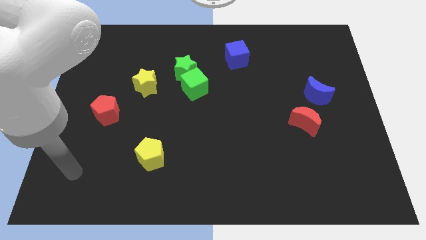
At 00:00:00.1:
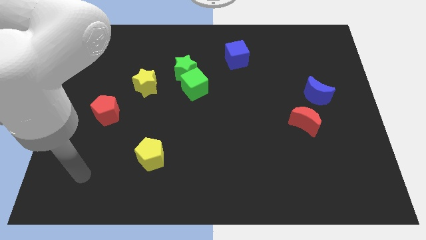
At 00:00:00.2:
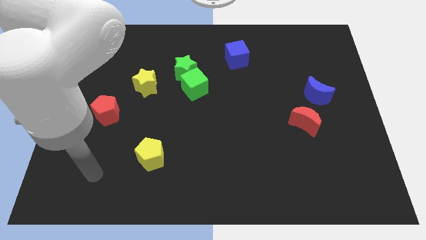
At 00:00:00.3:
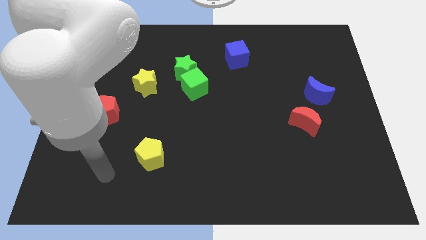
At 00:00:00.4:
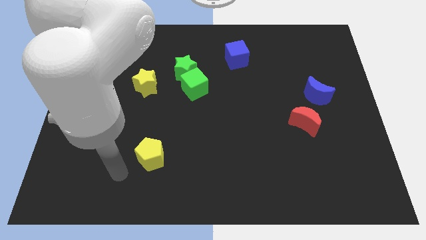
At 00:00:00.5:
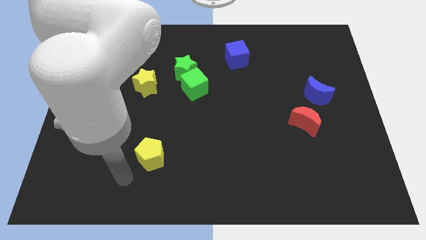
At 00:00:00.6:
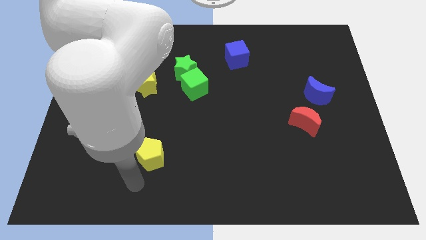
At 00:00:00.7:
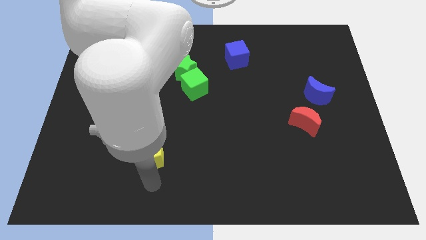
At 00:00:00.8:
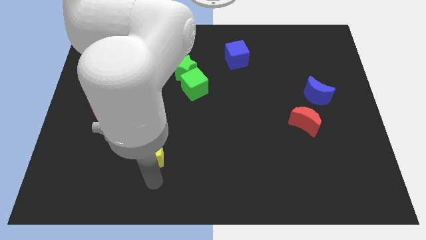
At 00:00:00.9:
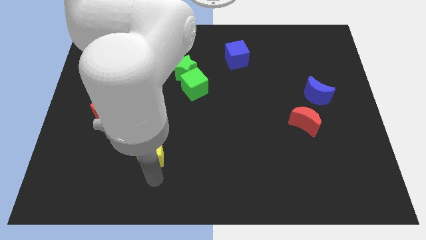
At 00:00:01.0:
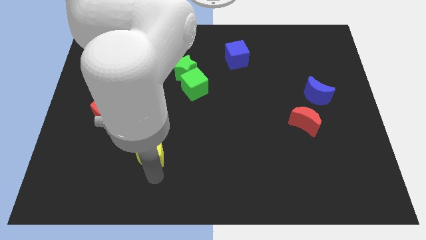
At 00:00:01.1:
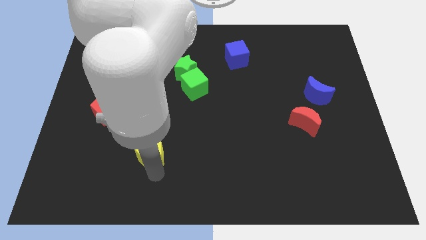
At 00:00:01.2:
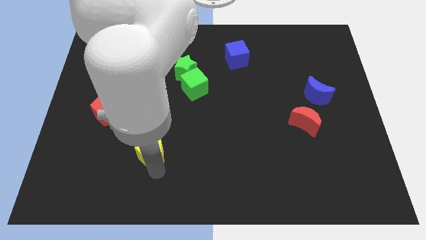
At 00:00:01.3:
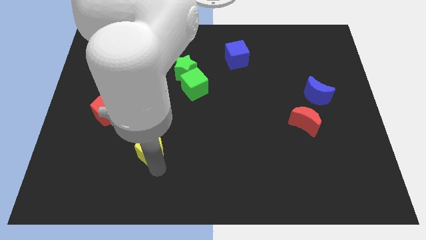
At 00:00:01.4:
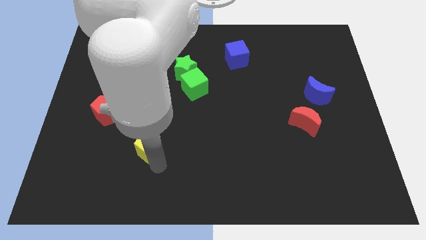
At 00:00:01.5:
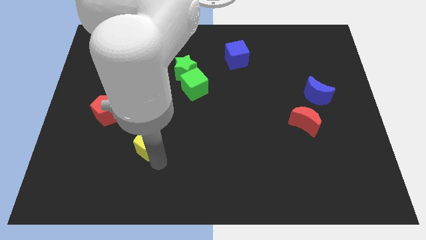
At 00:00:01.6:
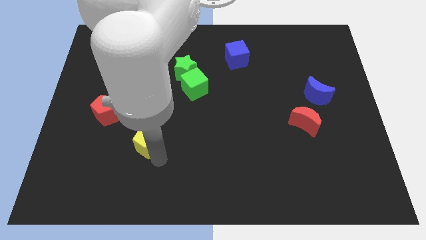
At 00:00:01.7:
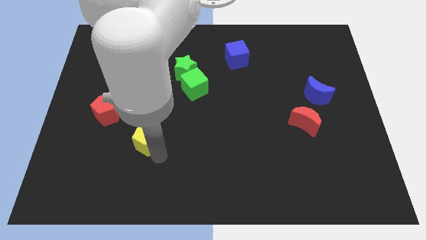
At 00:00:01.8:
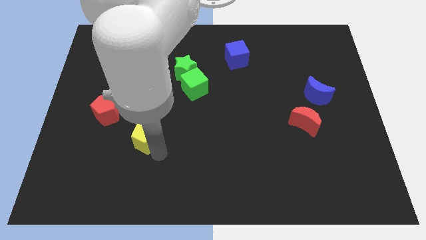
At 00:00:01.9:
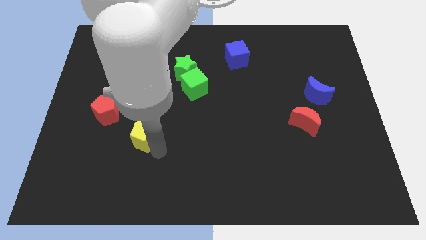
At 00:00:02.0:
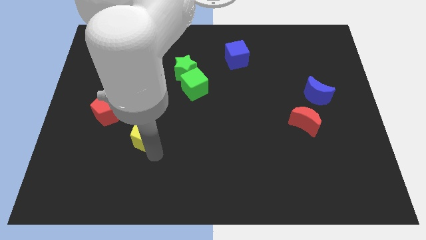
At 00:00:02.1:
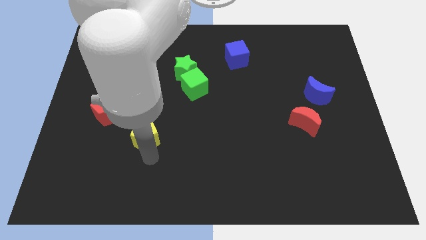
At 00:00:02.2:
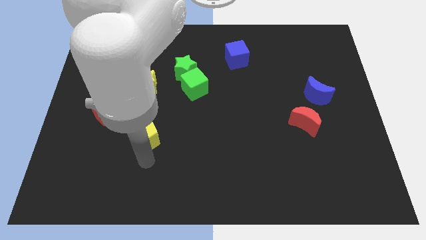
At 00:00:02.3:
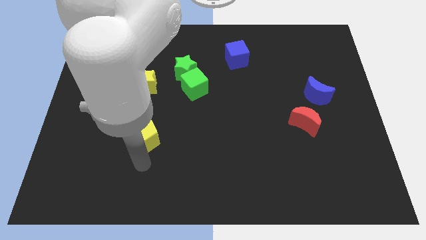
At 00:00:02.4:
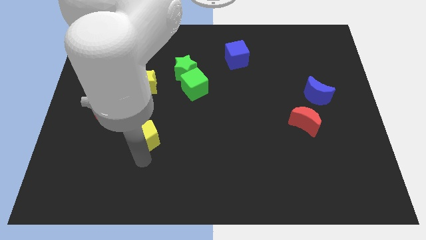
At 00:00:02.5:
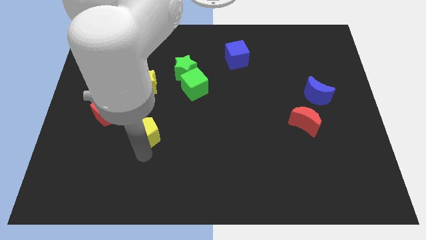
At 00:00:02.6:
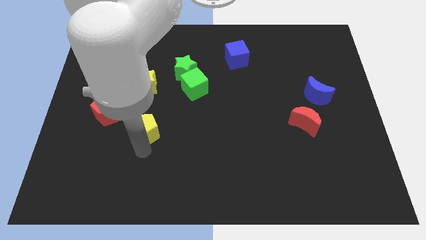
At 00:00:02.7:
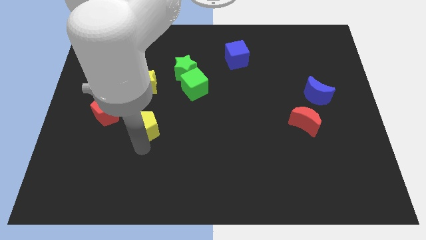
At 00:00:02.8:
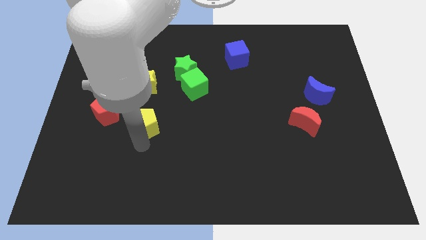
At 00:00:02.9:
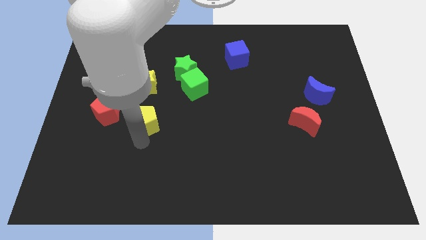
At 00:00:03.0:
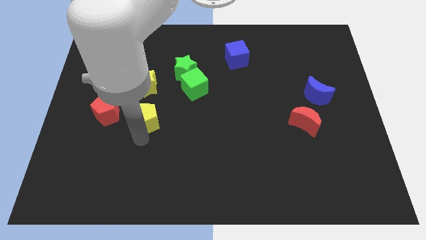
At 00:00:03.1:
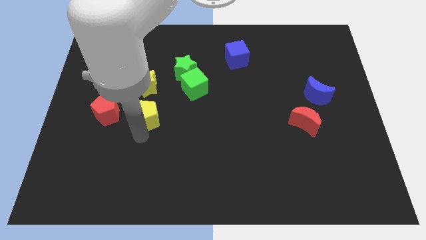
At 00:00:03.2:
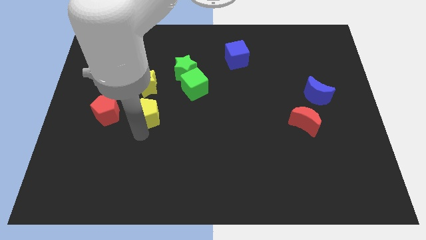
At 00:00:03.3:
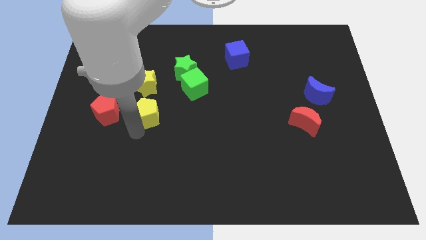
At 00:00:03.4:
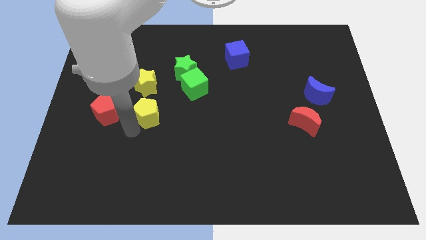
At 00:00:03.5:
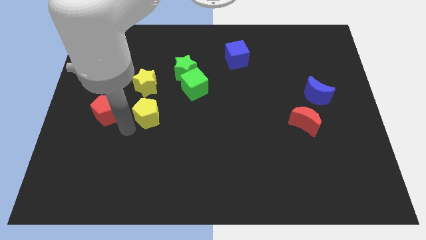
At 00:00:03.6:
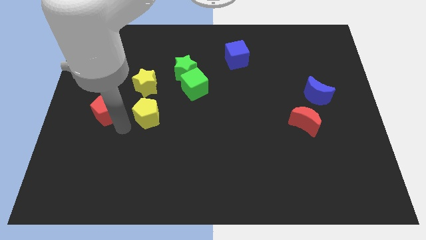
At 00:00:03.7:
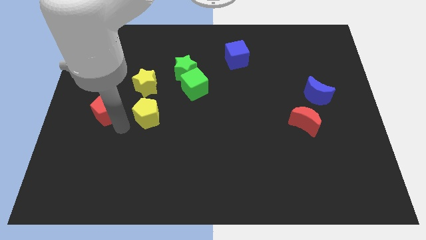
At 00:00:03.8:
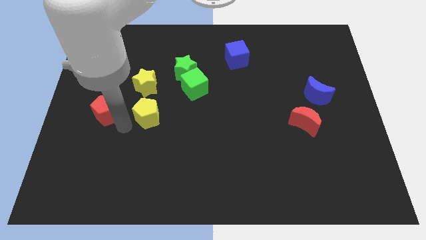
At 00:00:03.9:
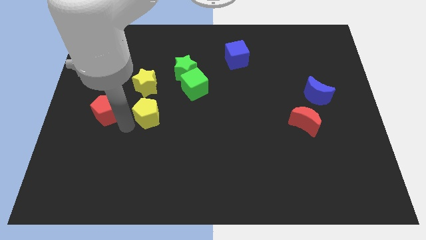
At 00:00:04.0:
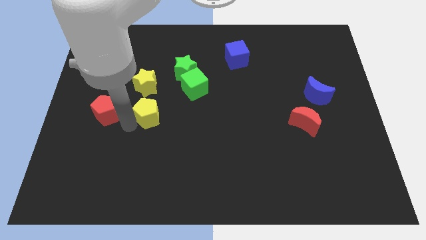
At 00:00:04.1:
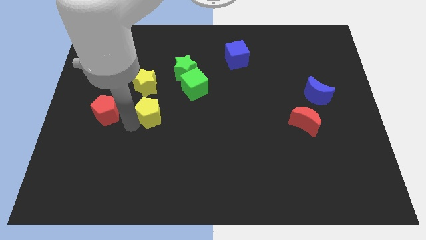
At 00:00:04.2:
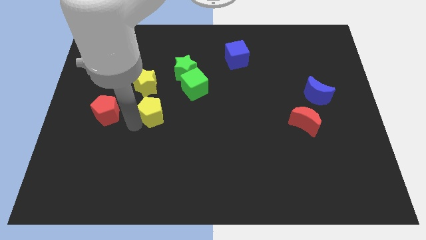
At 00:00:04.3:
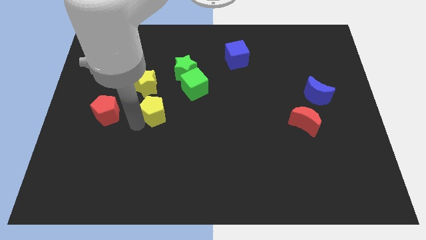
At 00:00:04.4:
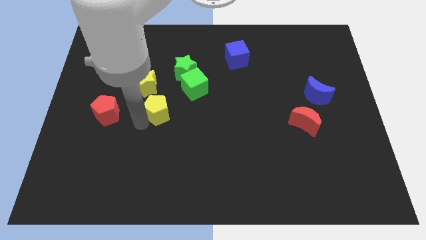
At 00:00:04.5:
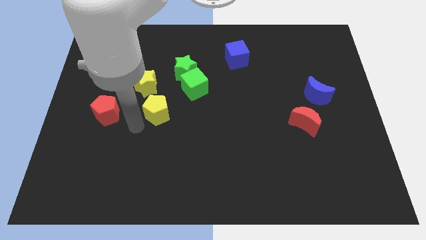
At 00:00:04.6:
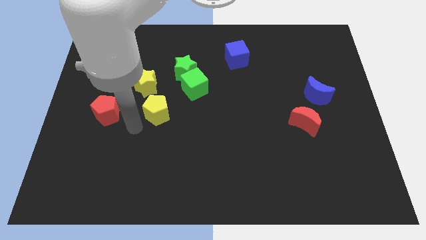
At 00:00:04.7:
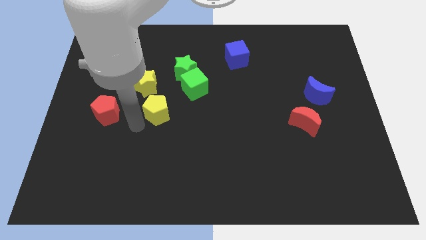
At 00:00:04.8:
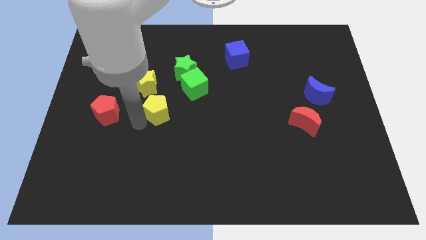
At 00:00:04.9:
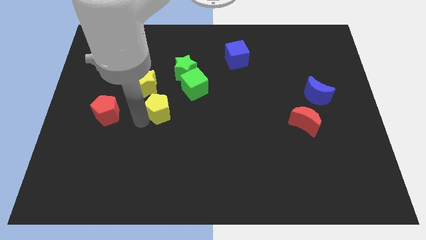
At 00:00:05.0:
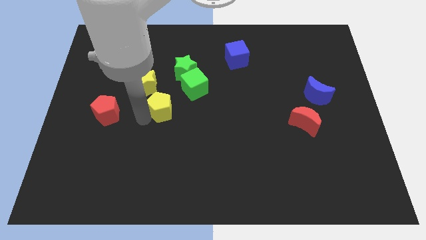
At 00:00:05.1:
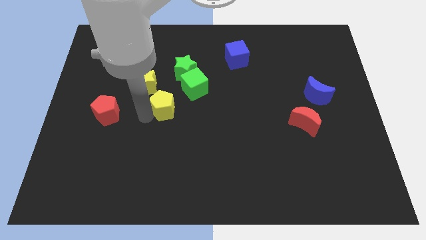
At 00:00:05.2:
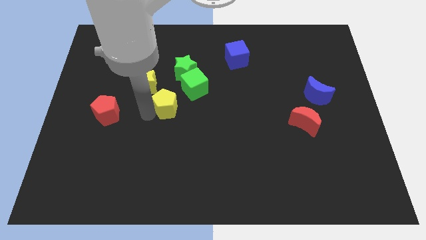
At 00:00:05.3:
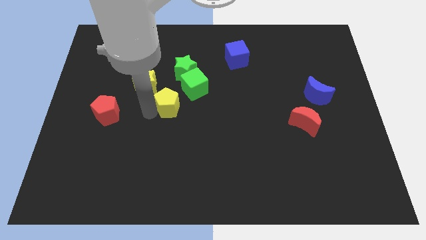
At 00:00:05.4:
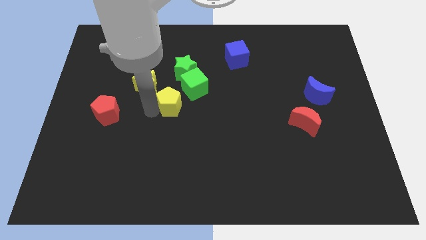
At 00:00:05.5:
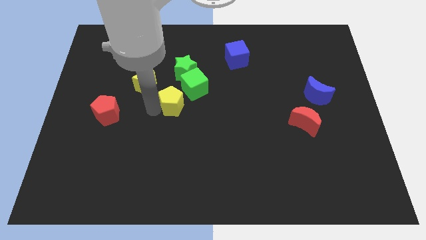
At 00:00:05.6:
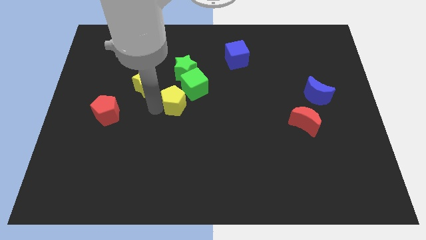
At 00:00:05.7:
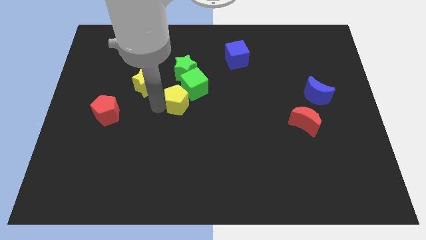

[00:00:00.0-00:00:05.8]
move the yellow pentagon close to the green cube
